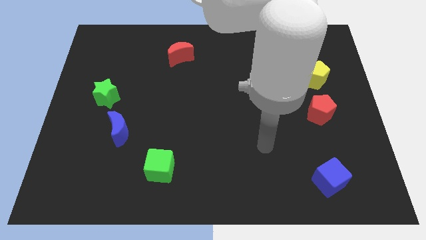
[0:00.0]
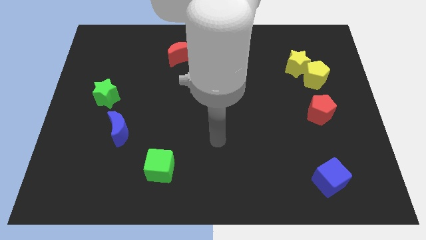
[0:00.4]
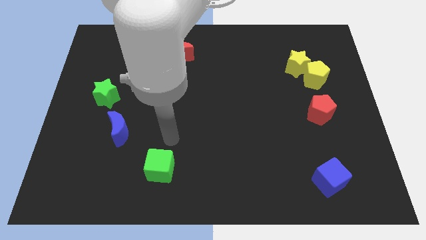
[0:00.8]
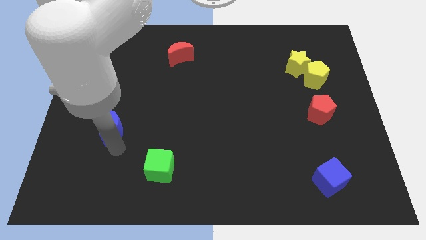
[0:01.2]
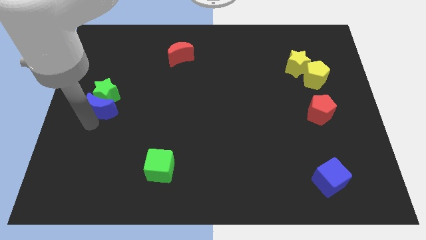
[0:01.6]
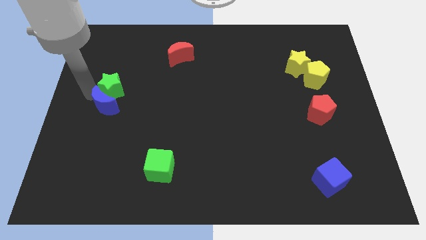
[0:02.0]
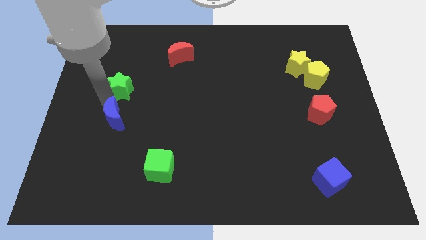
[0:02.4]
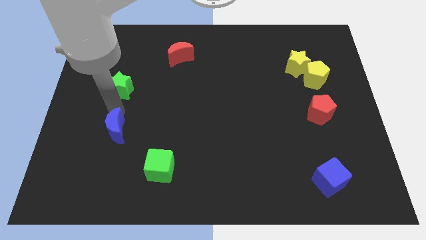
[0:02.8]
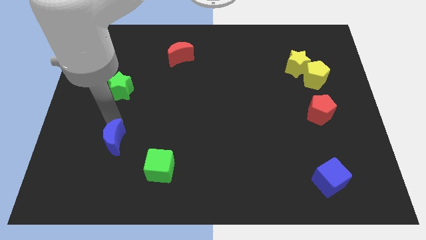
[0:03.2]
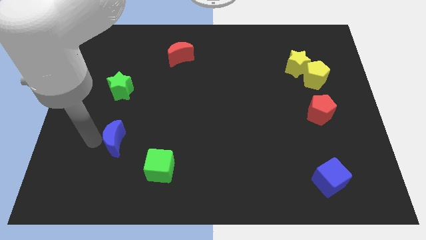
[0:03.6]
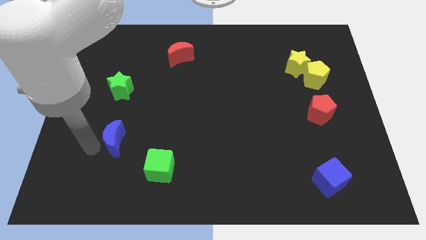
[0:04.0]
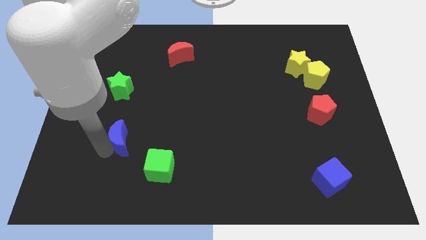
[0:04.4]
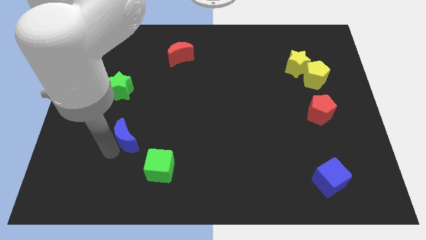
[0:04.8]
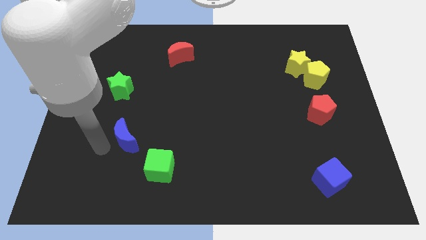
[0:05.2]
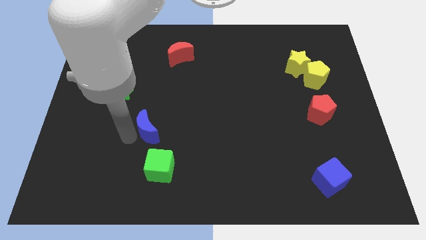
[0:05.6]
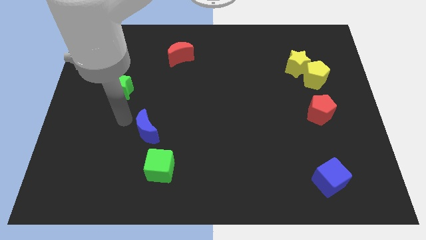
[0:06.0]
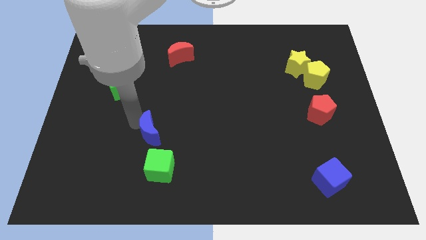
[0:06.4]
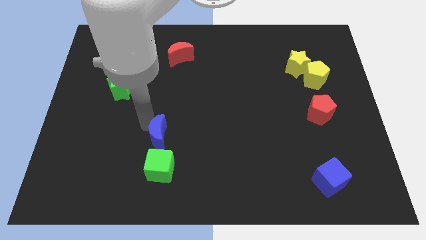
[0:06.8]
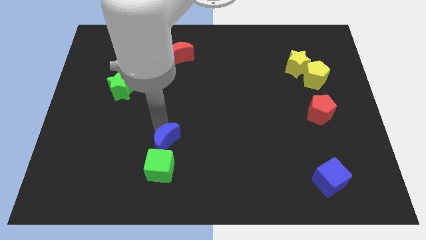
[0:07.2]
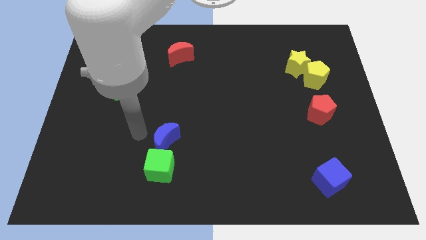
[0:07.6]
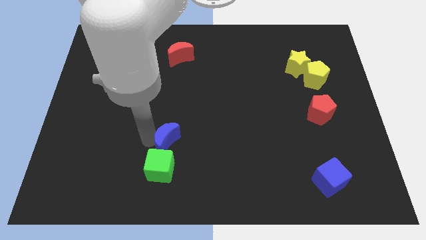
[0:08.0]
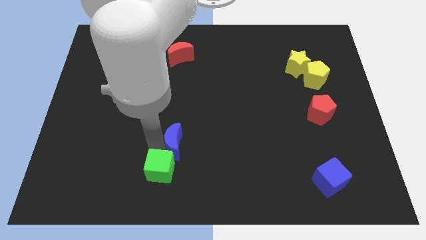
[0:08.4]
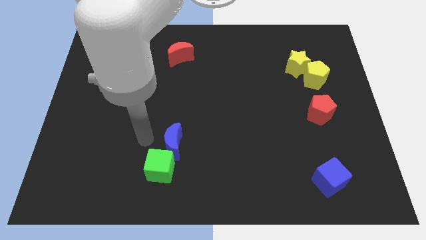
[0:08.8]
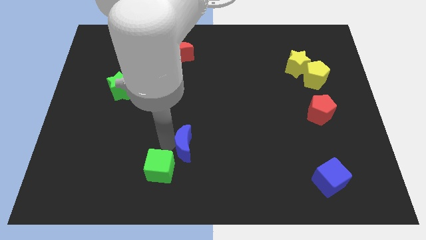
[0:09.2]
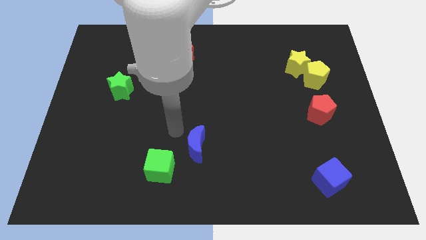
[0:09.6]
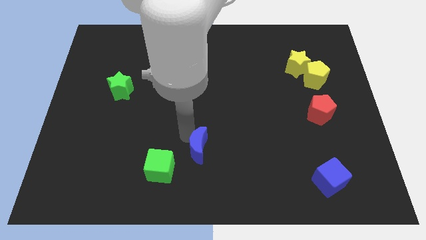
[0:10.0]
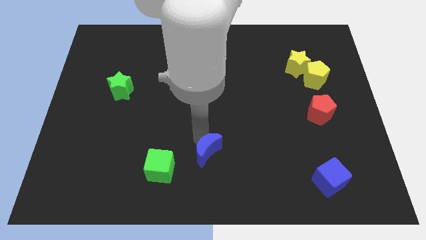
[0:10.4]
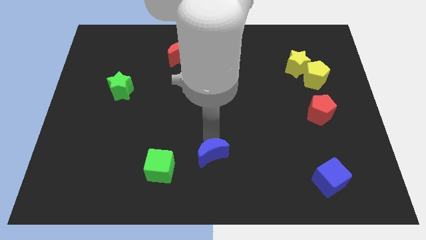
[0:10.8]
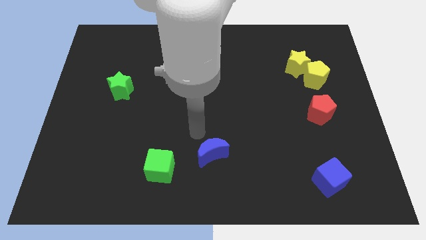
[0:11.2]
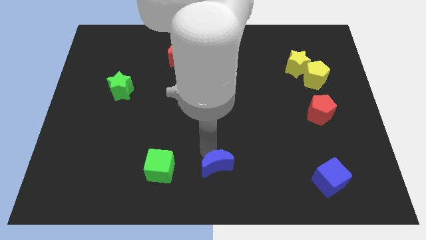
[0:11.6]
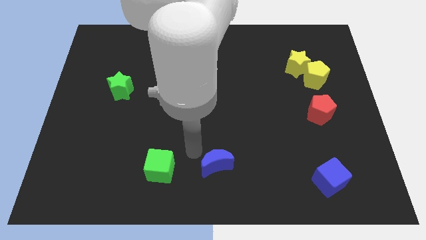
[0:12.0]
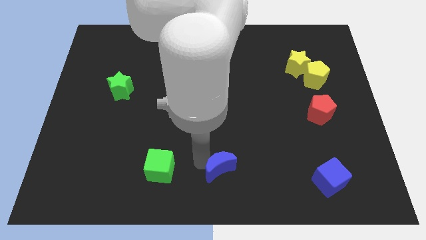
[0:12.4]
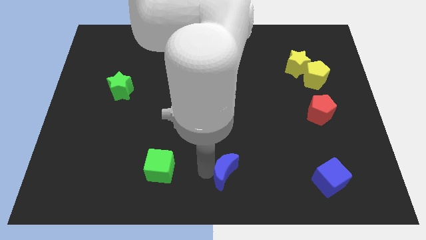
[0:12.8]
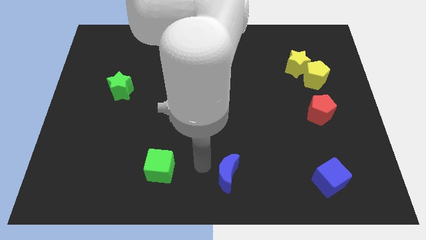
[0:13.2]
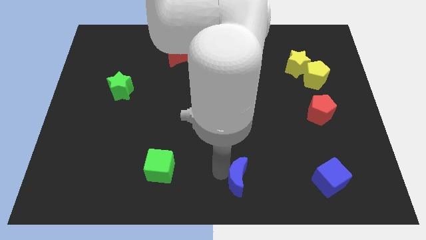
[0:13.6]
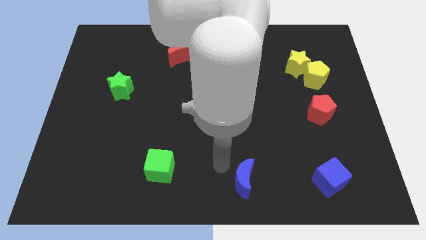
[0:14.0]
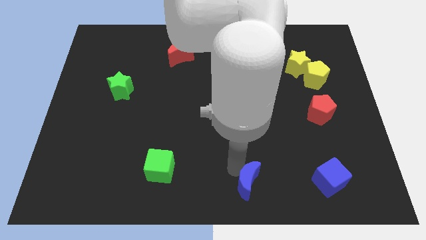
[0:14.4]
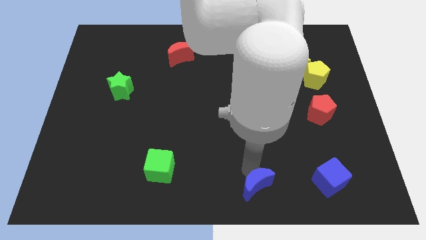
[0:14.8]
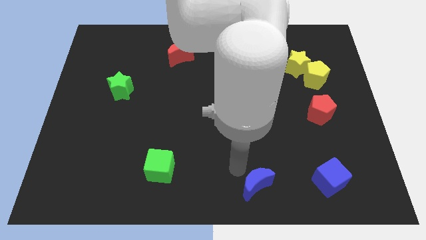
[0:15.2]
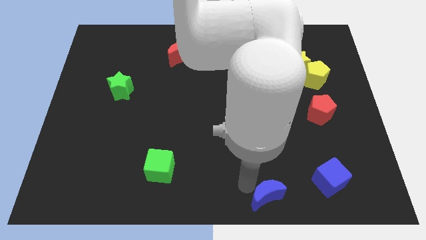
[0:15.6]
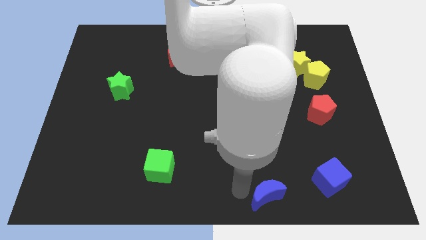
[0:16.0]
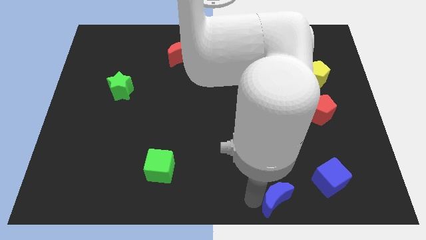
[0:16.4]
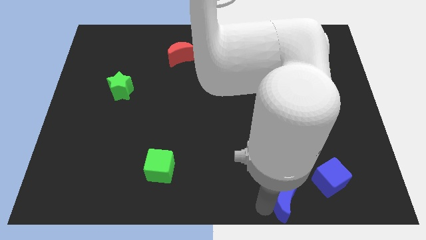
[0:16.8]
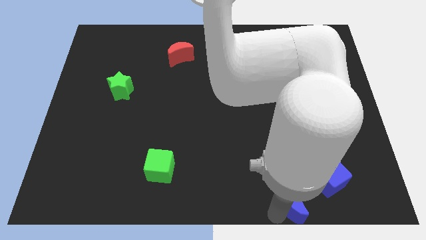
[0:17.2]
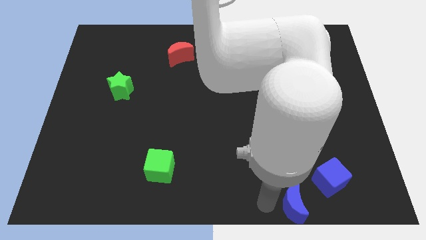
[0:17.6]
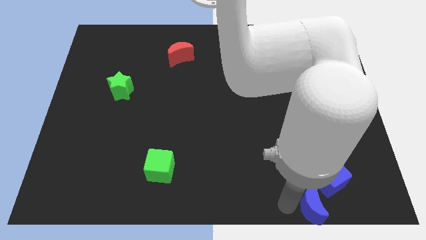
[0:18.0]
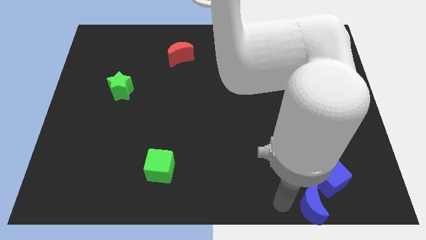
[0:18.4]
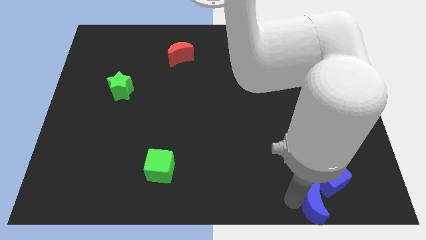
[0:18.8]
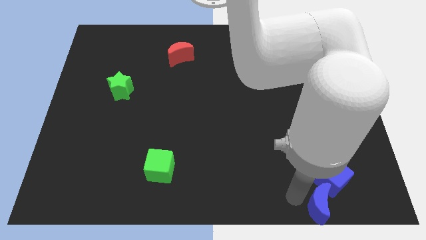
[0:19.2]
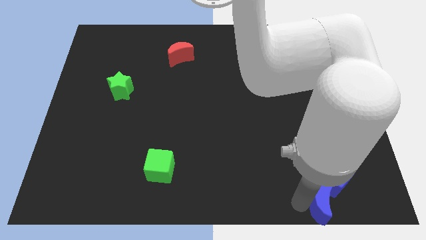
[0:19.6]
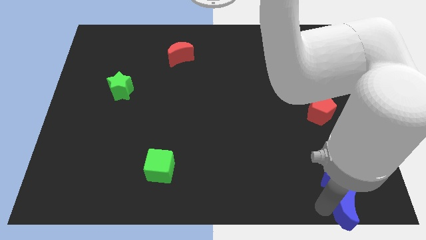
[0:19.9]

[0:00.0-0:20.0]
put the blue moon to the bottom right

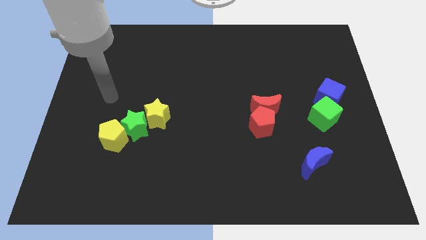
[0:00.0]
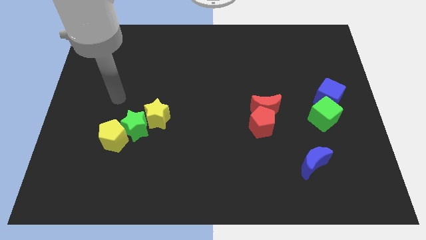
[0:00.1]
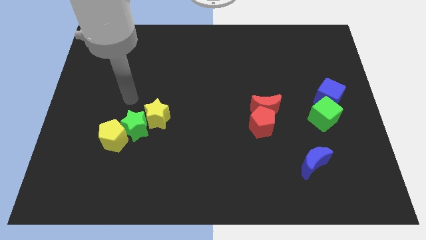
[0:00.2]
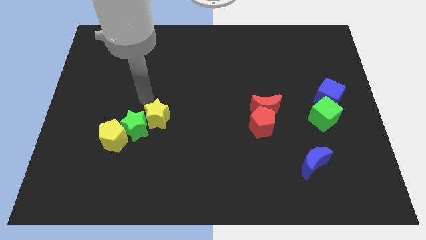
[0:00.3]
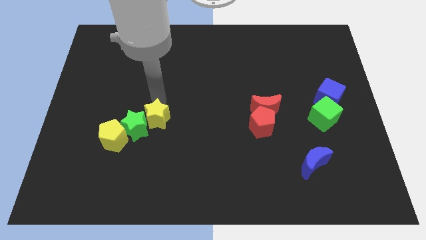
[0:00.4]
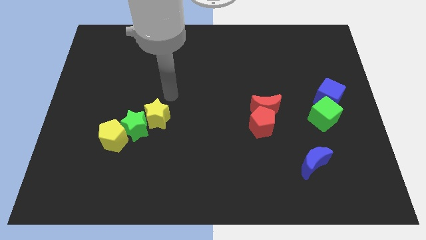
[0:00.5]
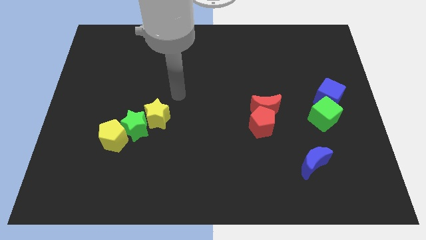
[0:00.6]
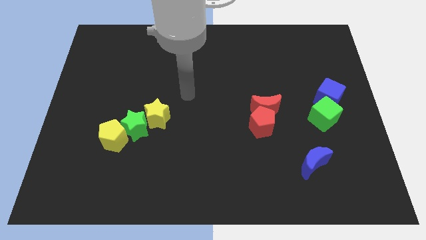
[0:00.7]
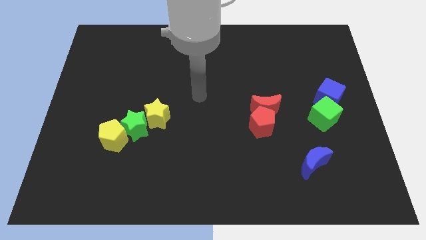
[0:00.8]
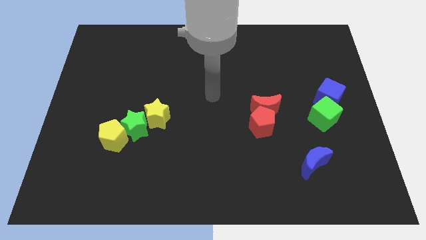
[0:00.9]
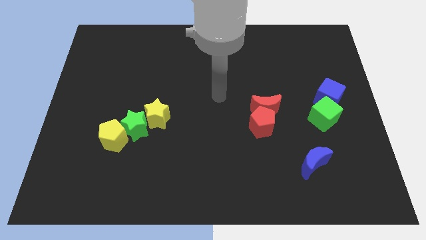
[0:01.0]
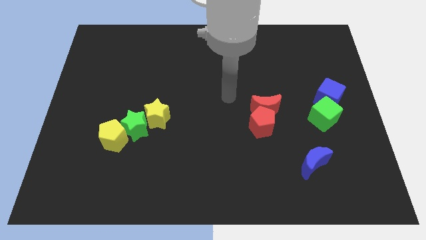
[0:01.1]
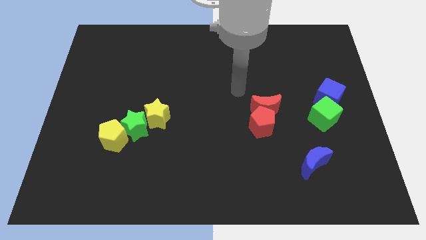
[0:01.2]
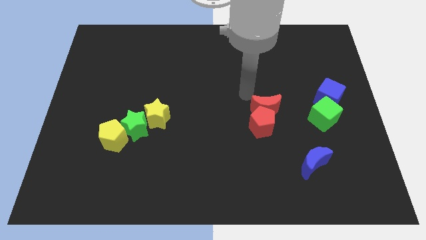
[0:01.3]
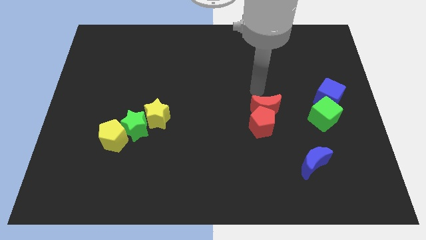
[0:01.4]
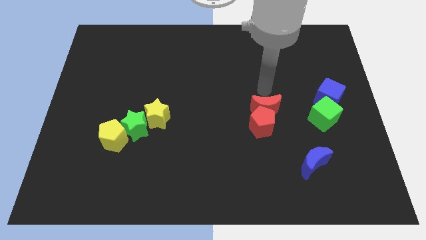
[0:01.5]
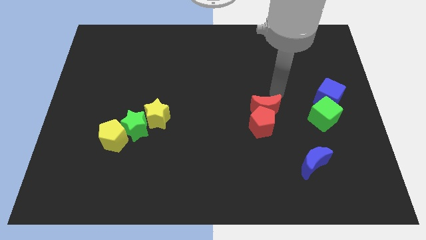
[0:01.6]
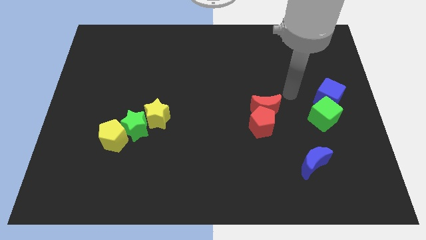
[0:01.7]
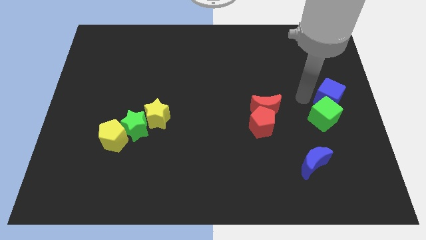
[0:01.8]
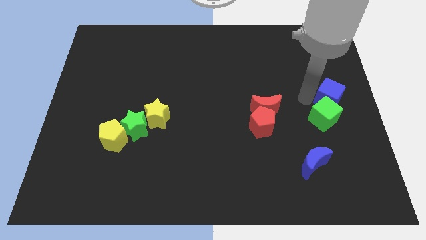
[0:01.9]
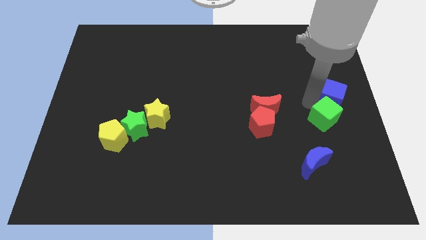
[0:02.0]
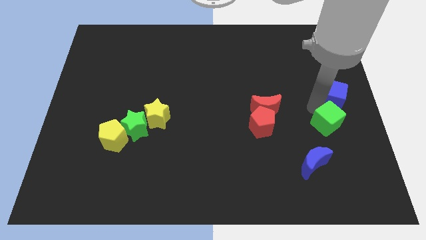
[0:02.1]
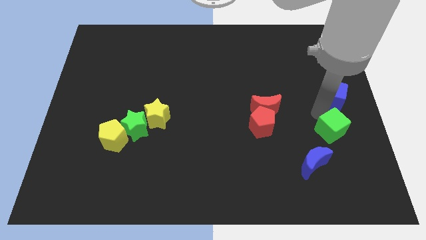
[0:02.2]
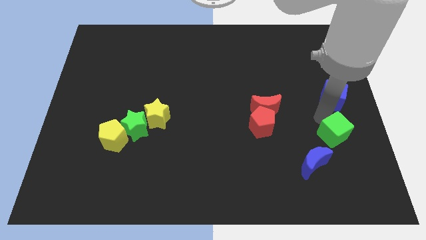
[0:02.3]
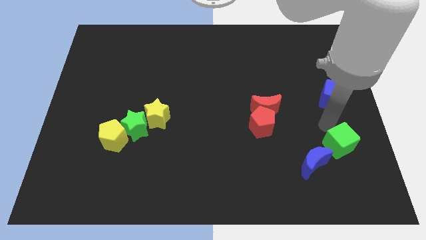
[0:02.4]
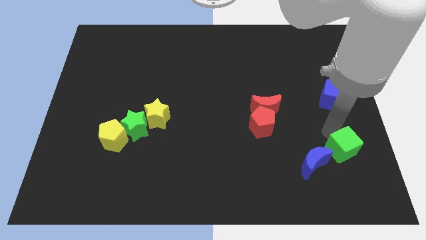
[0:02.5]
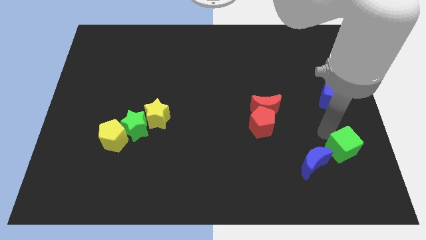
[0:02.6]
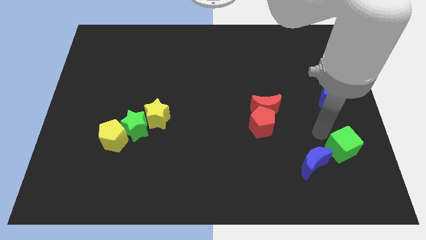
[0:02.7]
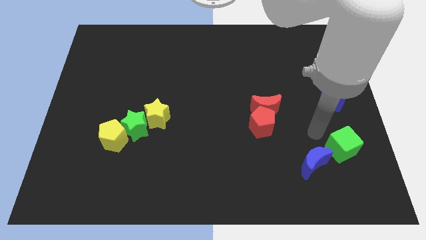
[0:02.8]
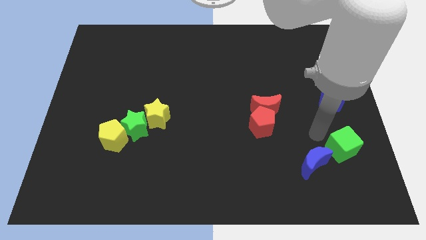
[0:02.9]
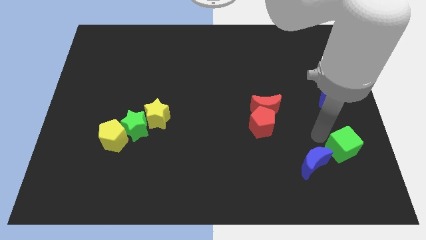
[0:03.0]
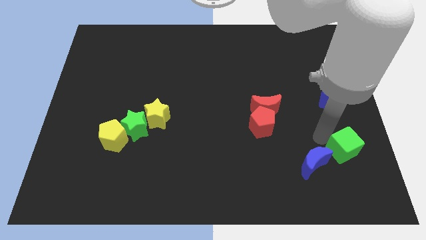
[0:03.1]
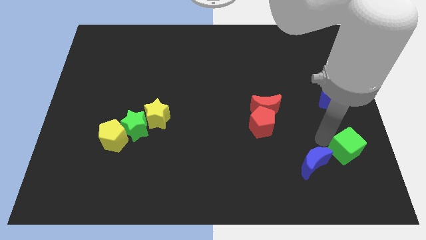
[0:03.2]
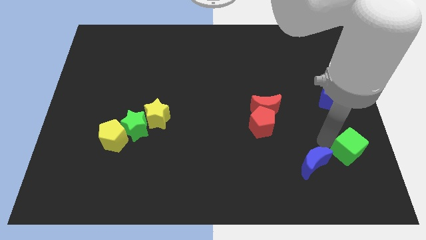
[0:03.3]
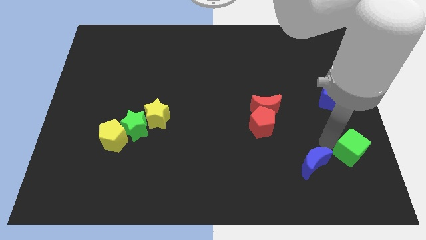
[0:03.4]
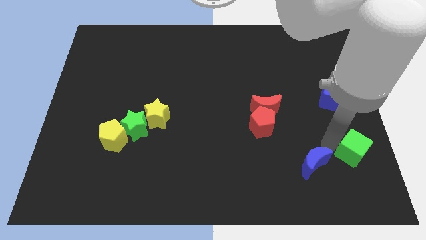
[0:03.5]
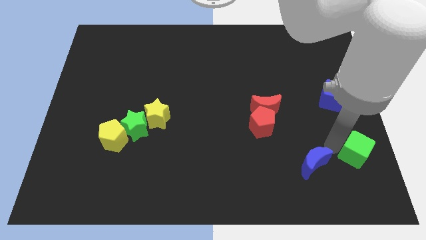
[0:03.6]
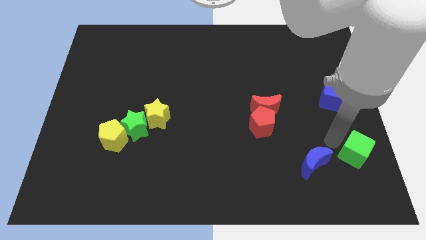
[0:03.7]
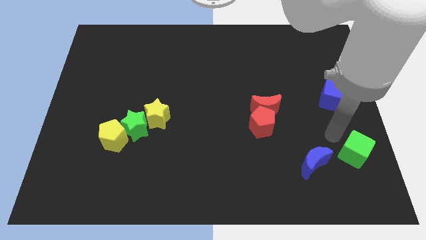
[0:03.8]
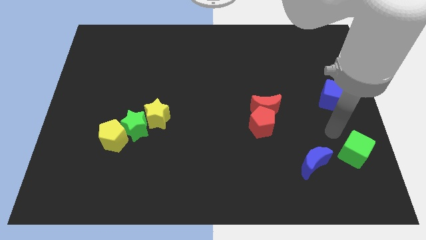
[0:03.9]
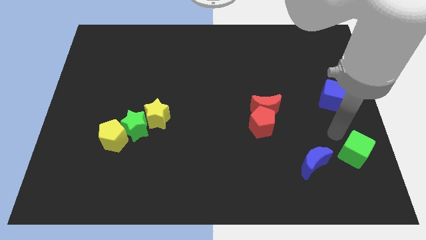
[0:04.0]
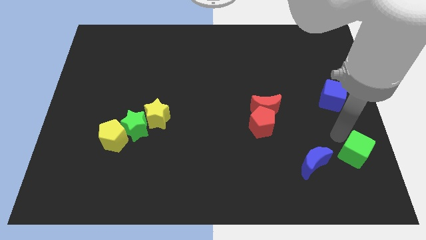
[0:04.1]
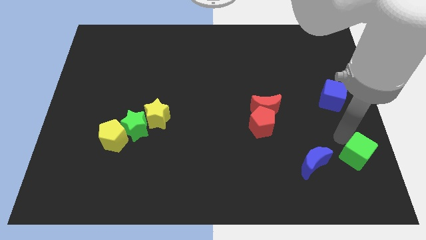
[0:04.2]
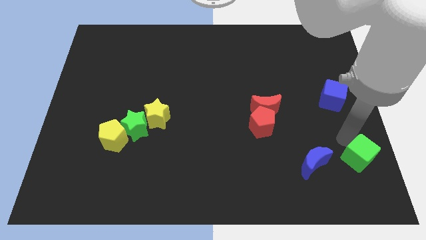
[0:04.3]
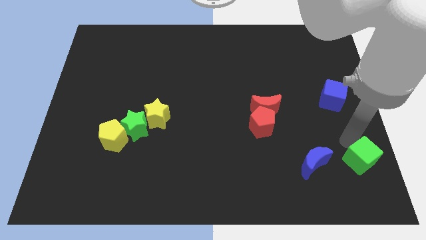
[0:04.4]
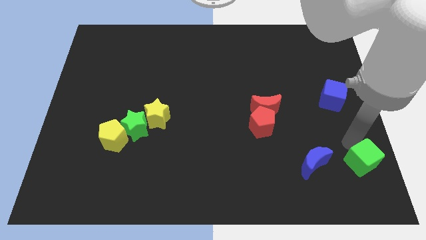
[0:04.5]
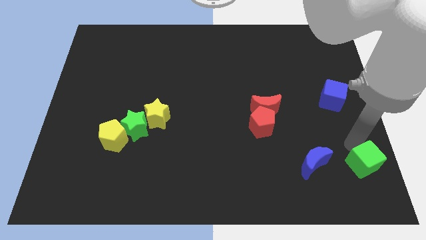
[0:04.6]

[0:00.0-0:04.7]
put the green cube to the bottom right of the board
